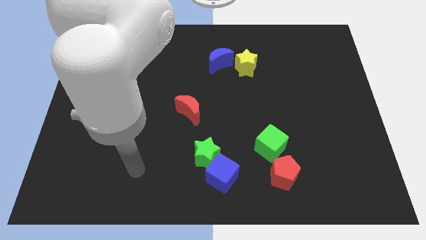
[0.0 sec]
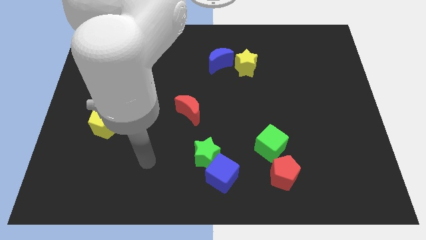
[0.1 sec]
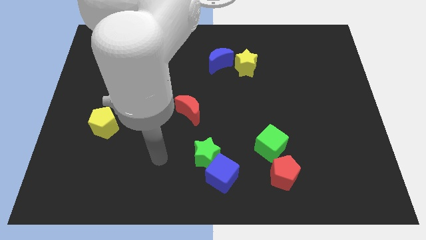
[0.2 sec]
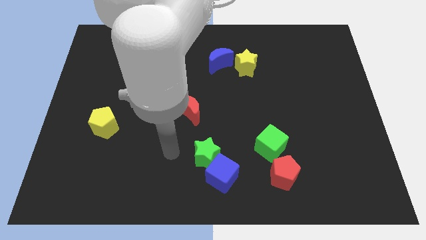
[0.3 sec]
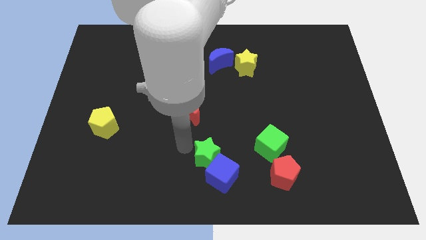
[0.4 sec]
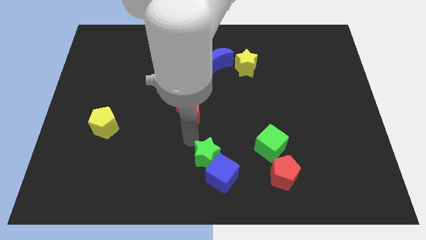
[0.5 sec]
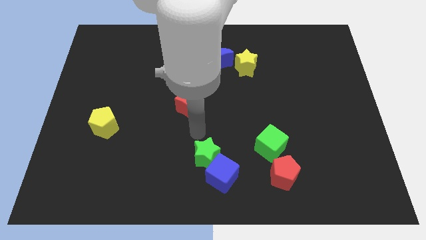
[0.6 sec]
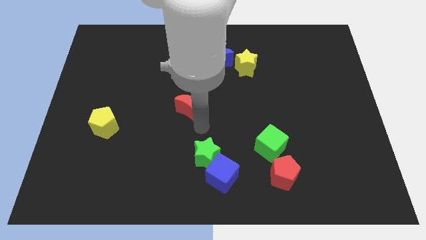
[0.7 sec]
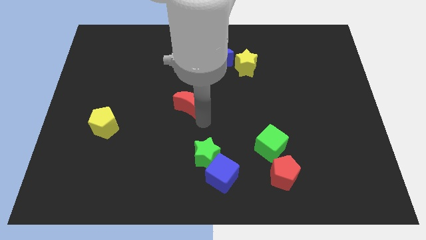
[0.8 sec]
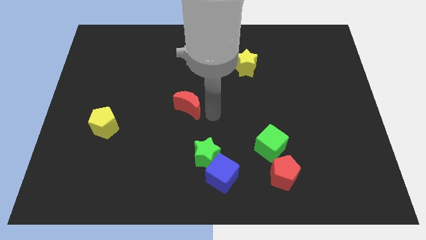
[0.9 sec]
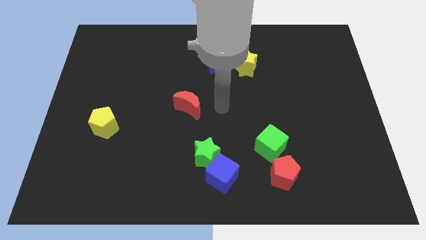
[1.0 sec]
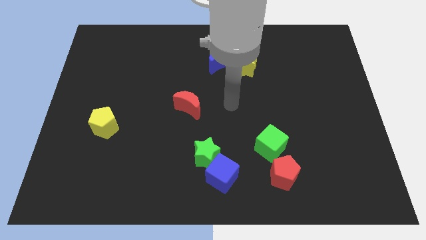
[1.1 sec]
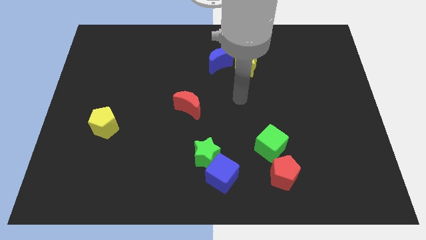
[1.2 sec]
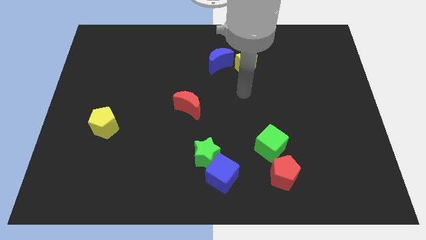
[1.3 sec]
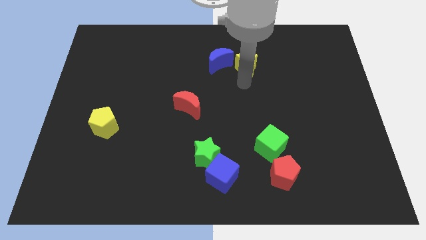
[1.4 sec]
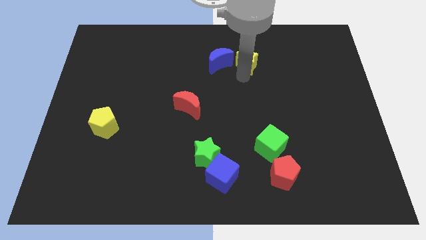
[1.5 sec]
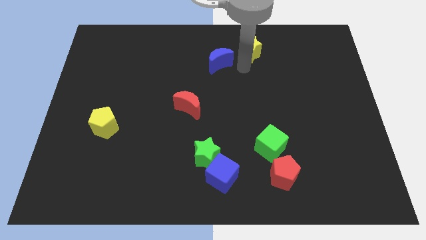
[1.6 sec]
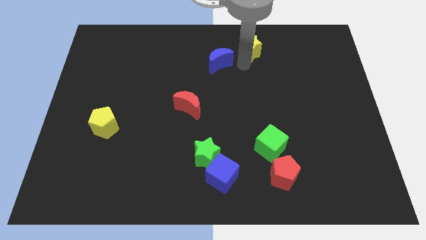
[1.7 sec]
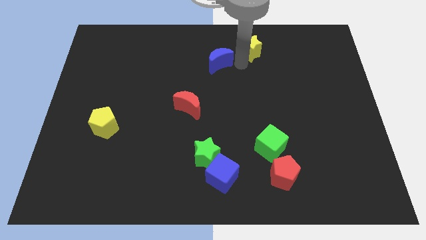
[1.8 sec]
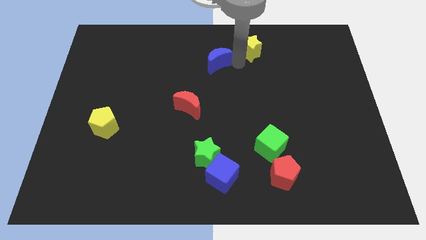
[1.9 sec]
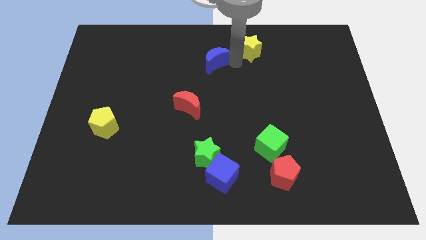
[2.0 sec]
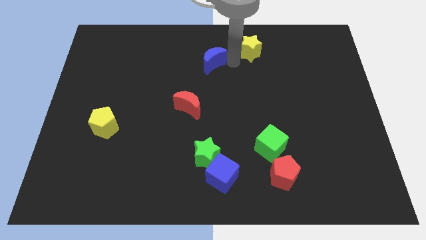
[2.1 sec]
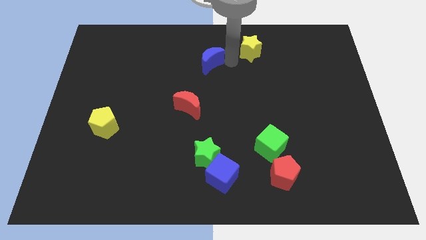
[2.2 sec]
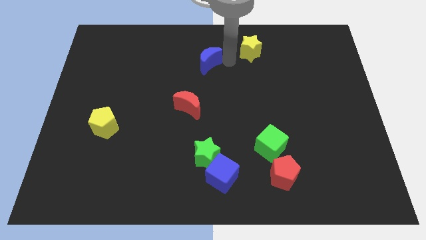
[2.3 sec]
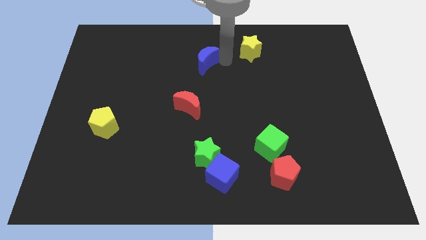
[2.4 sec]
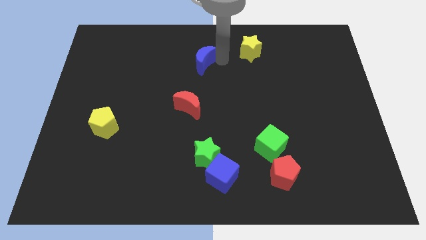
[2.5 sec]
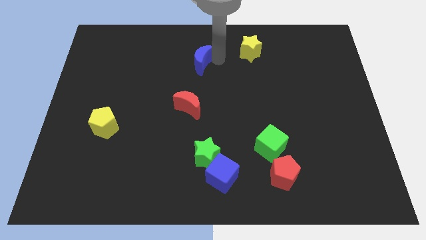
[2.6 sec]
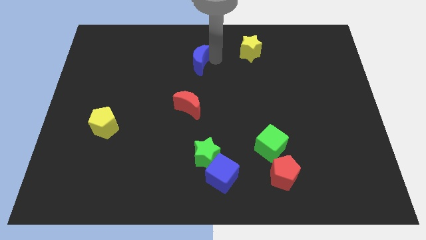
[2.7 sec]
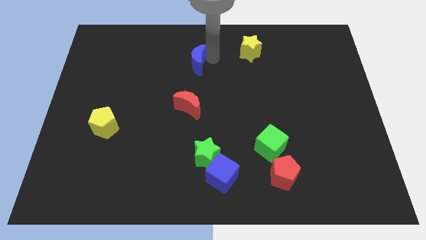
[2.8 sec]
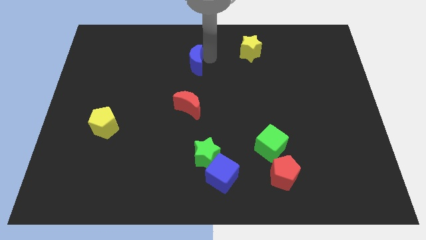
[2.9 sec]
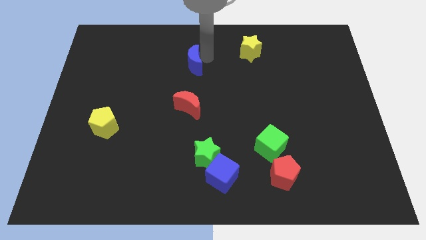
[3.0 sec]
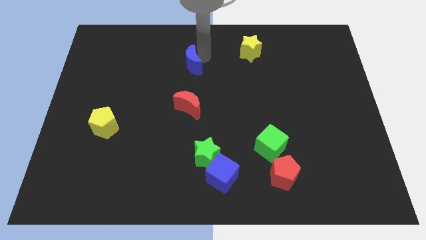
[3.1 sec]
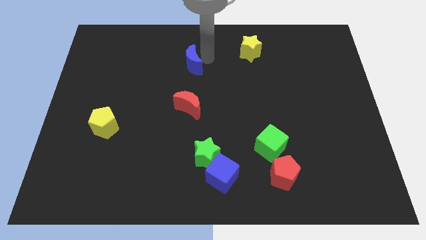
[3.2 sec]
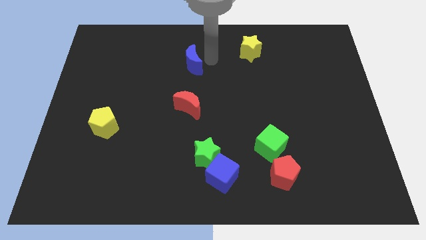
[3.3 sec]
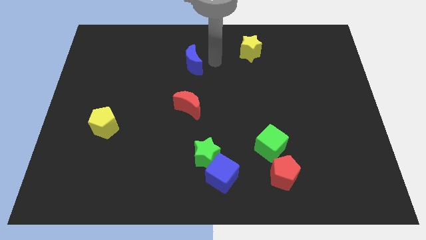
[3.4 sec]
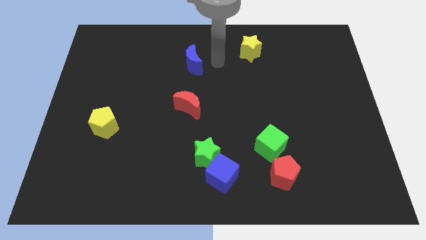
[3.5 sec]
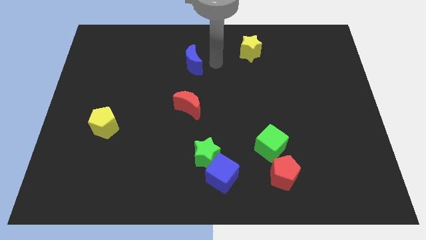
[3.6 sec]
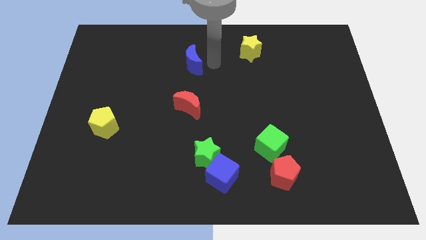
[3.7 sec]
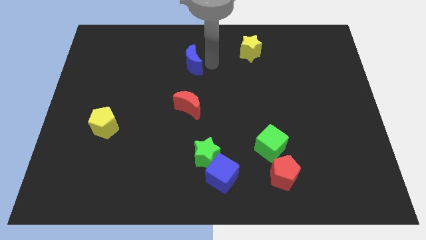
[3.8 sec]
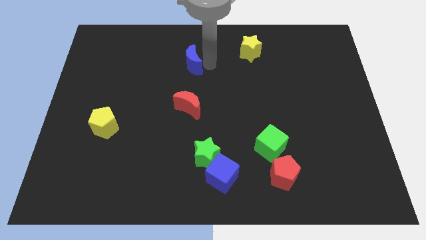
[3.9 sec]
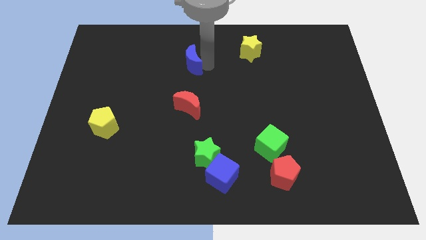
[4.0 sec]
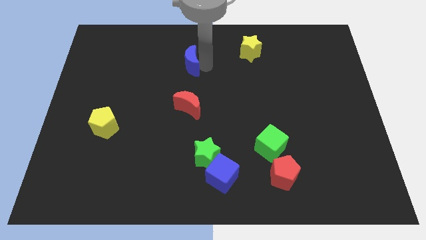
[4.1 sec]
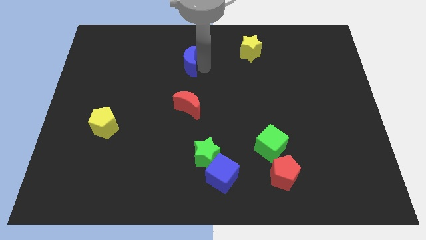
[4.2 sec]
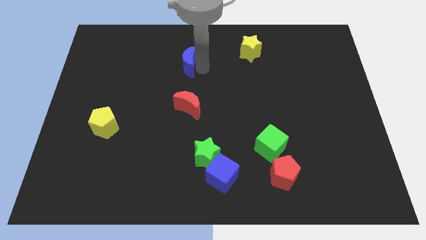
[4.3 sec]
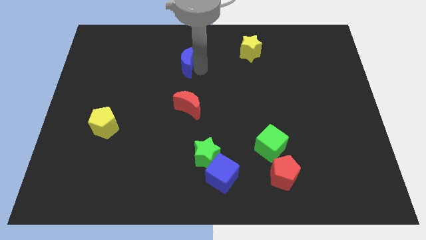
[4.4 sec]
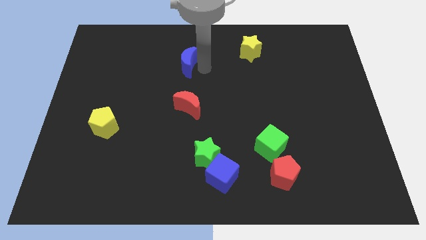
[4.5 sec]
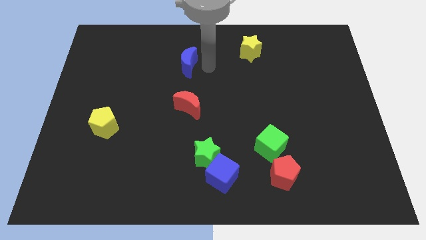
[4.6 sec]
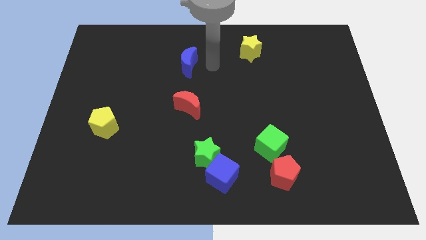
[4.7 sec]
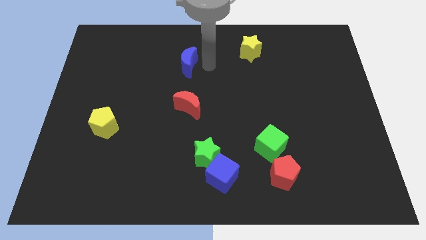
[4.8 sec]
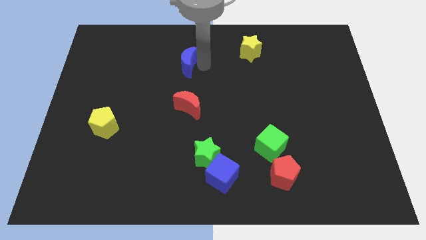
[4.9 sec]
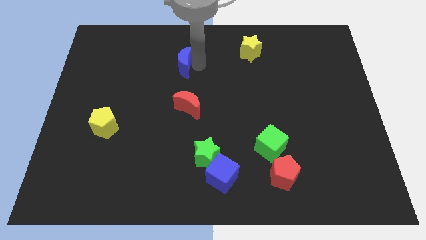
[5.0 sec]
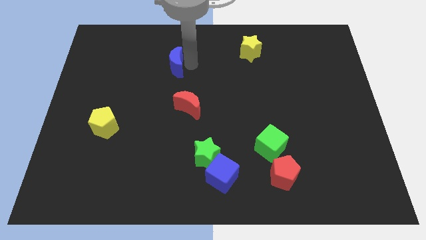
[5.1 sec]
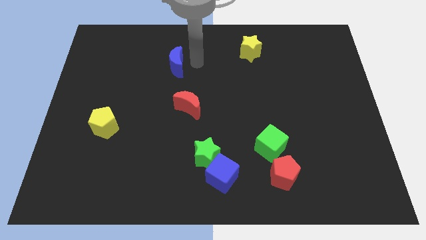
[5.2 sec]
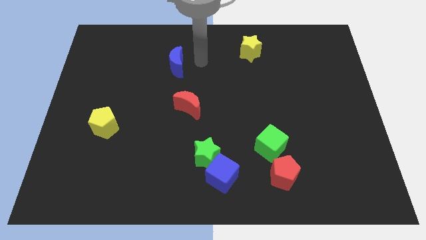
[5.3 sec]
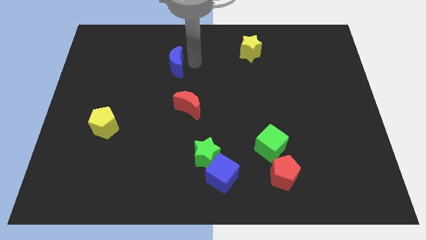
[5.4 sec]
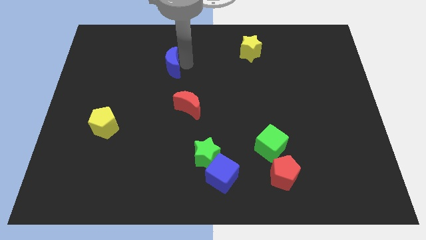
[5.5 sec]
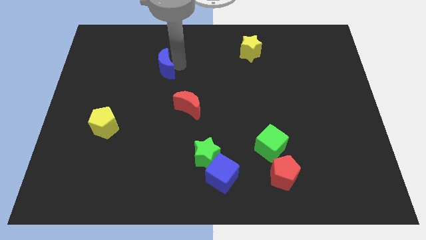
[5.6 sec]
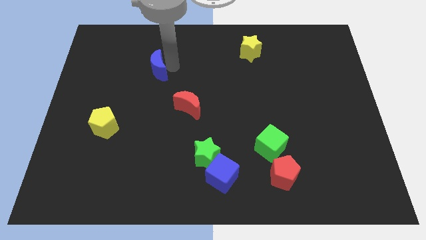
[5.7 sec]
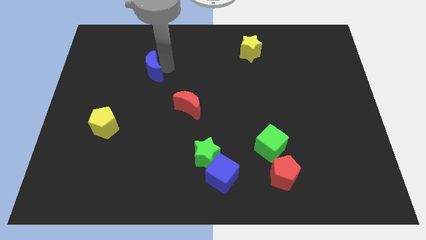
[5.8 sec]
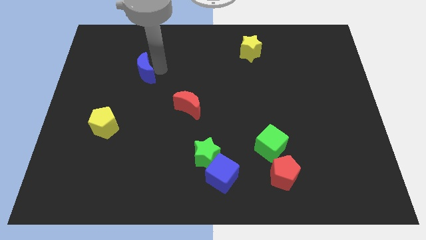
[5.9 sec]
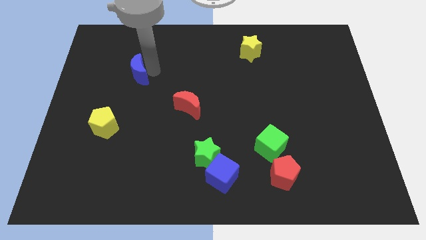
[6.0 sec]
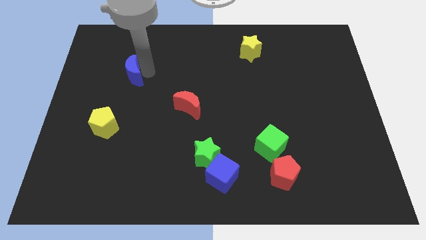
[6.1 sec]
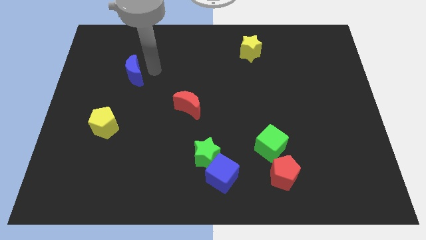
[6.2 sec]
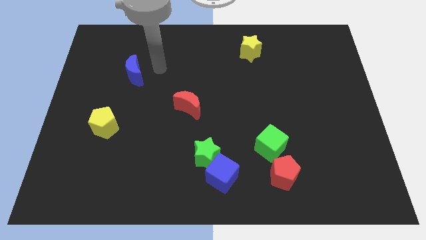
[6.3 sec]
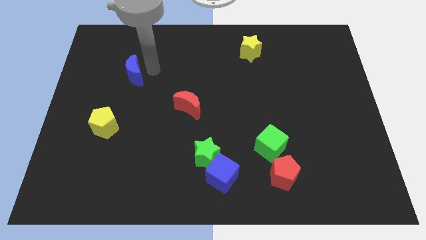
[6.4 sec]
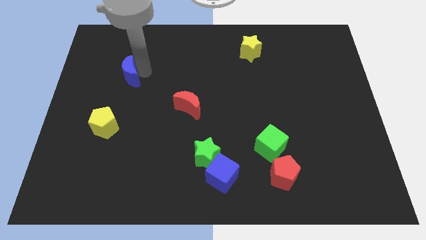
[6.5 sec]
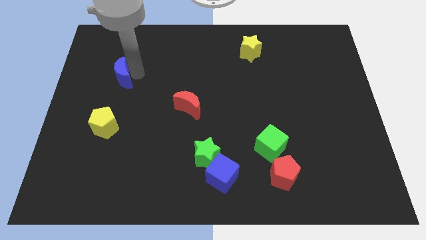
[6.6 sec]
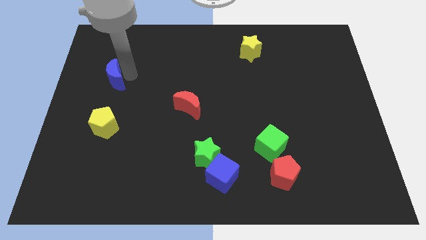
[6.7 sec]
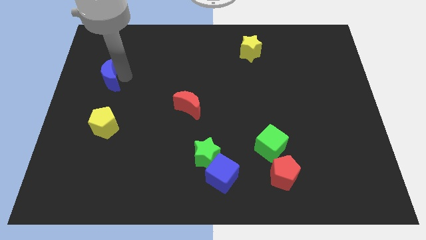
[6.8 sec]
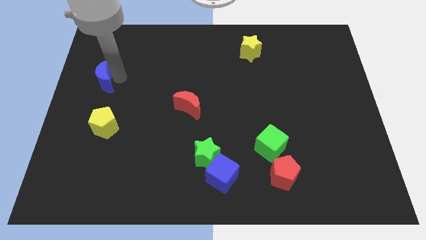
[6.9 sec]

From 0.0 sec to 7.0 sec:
move the blue moon to the left side
